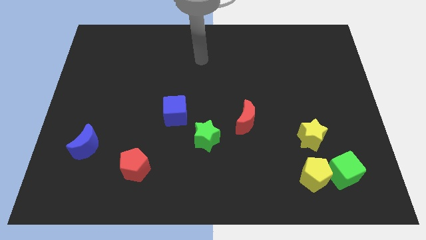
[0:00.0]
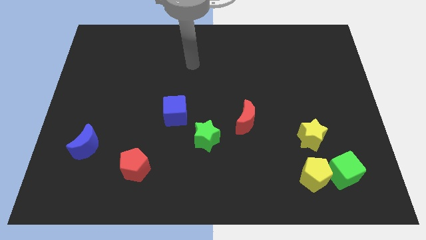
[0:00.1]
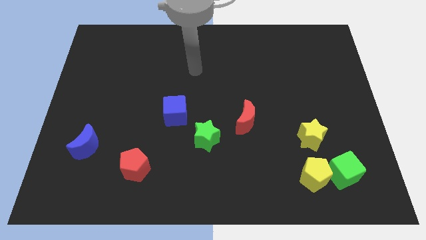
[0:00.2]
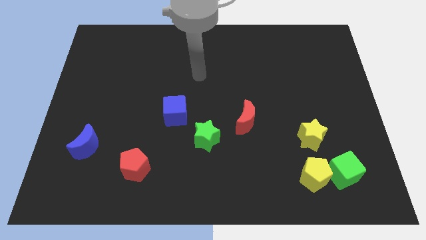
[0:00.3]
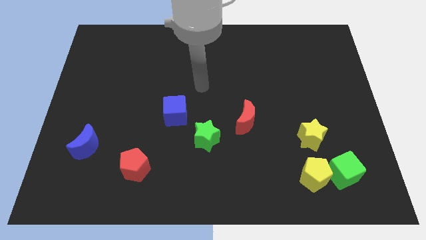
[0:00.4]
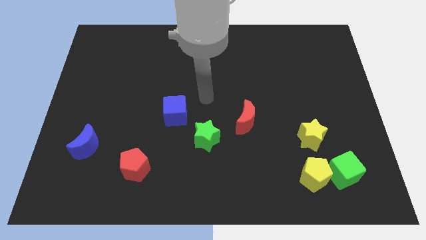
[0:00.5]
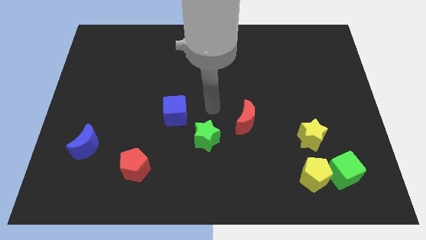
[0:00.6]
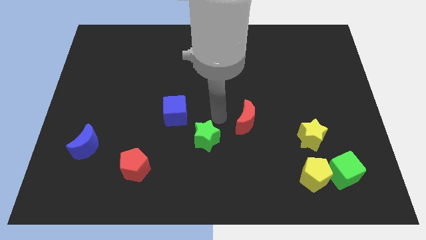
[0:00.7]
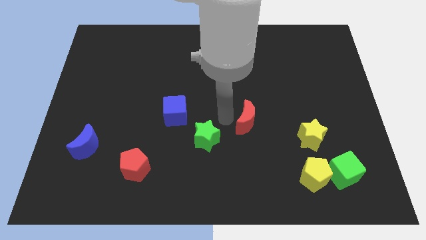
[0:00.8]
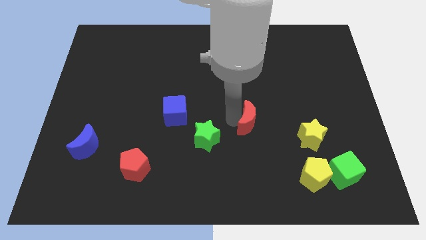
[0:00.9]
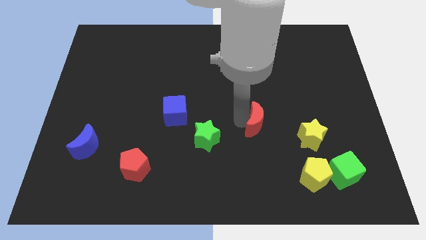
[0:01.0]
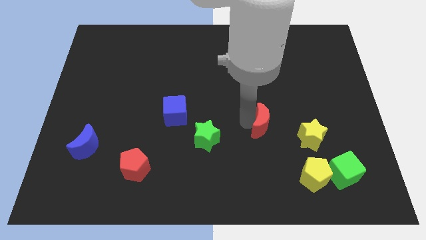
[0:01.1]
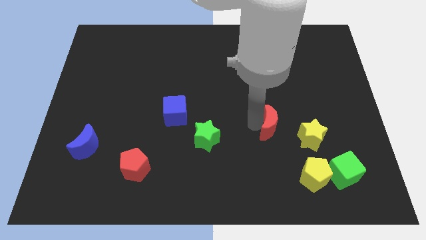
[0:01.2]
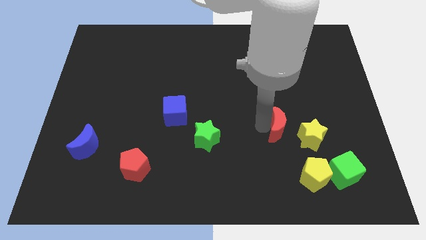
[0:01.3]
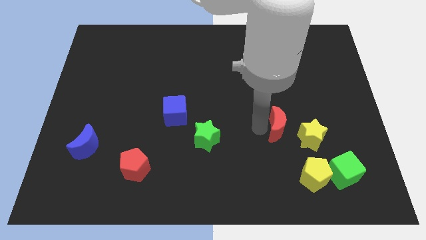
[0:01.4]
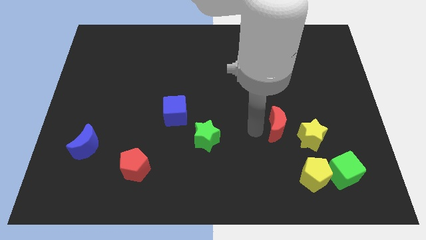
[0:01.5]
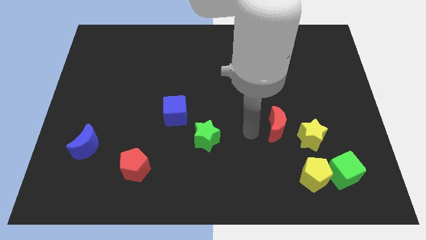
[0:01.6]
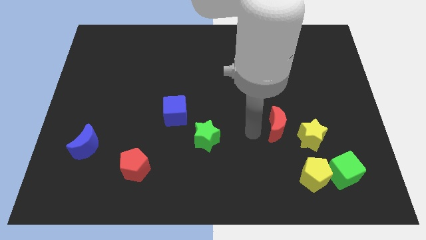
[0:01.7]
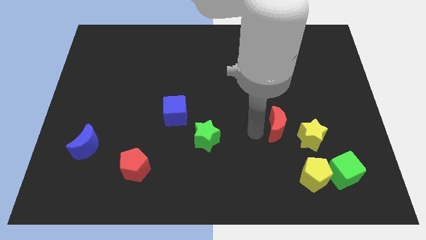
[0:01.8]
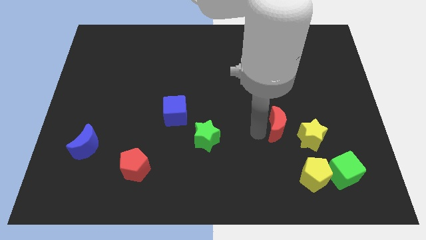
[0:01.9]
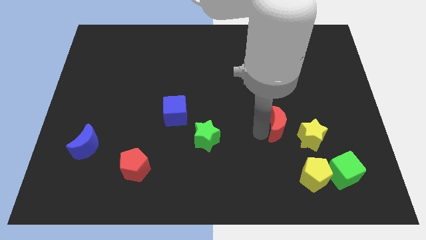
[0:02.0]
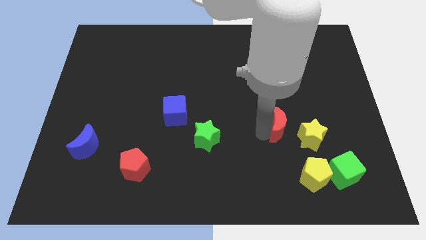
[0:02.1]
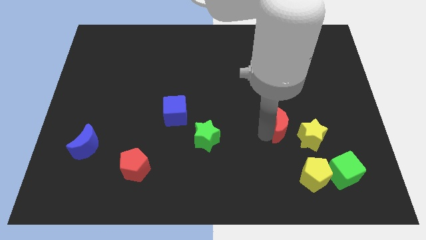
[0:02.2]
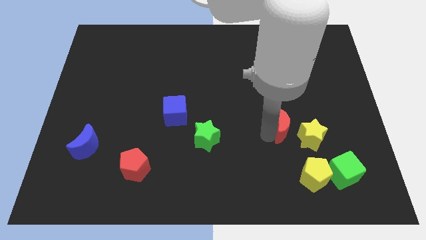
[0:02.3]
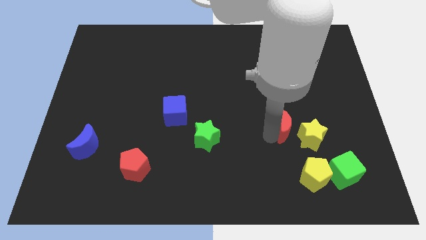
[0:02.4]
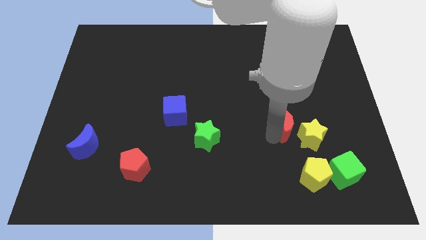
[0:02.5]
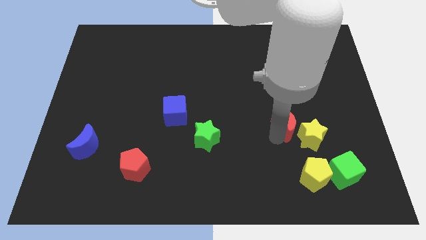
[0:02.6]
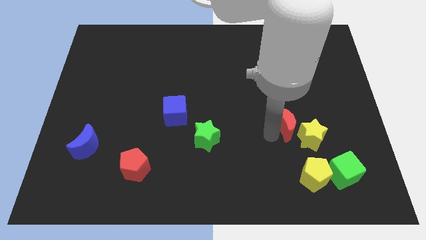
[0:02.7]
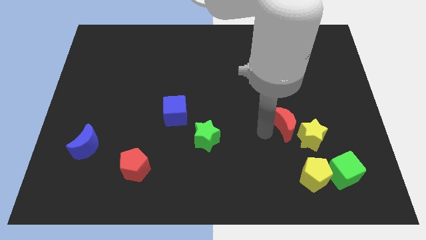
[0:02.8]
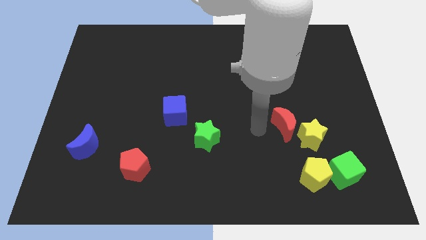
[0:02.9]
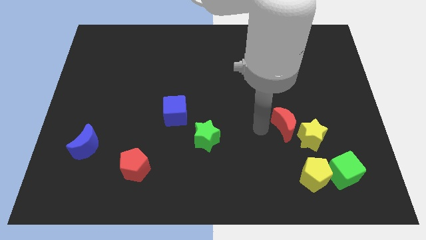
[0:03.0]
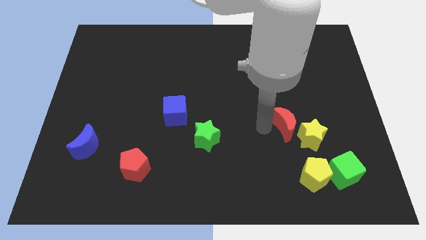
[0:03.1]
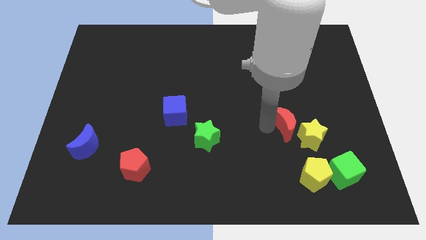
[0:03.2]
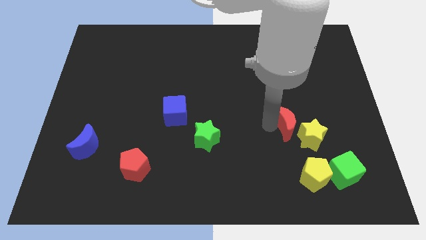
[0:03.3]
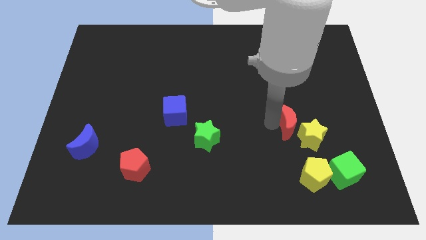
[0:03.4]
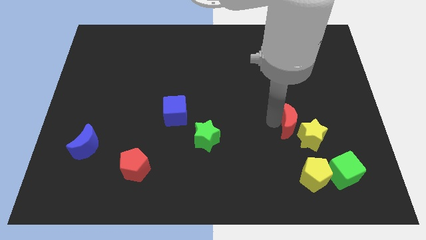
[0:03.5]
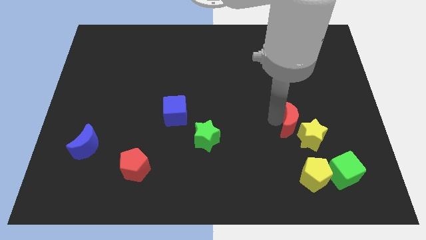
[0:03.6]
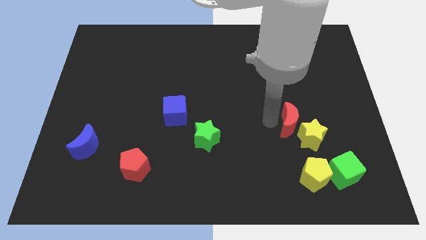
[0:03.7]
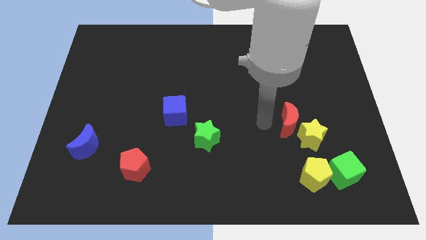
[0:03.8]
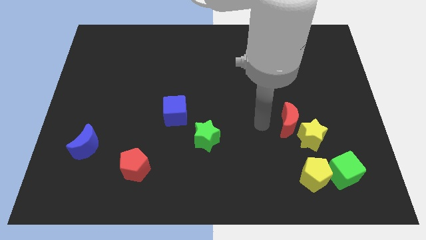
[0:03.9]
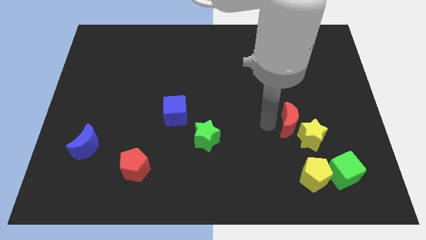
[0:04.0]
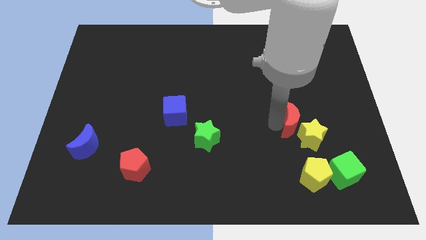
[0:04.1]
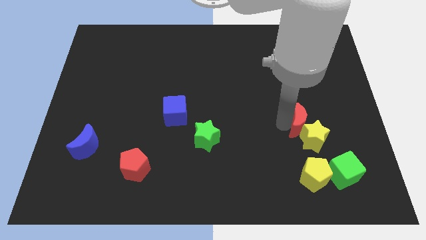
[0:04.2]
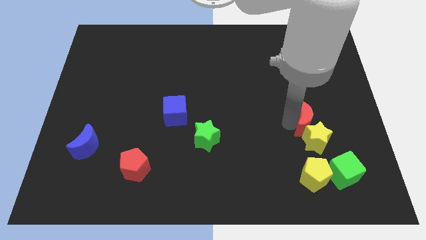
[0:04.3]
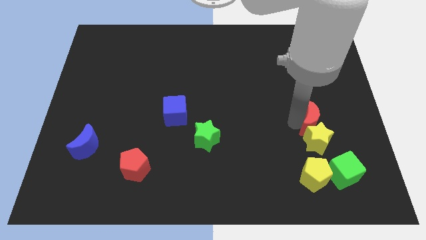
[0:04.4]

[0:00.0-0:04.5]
slide the red moon above the green cube

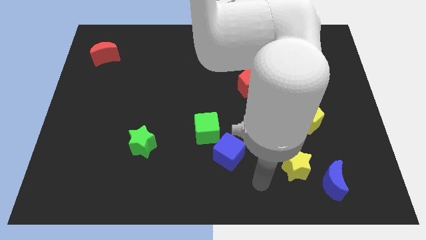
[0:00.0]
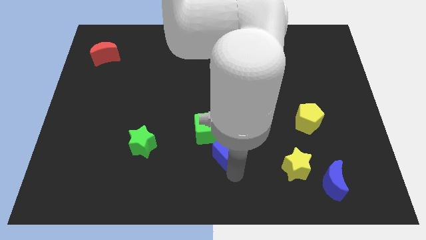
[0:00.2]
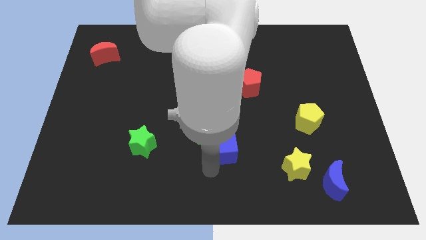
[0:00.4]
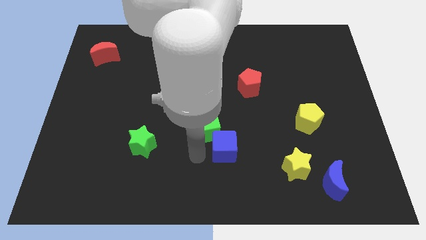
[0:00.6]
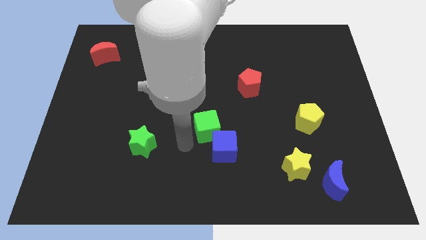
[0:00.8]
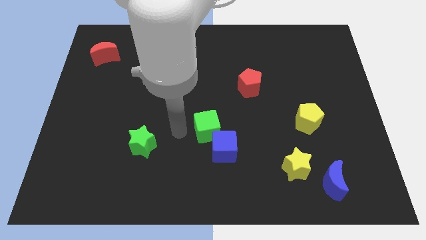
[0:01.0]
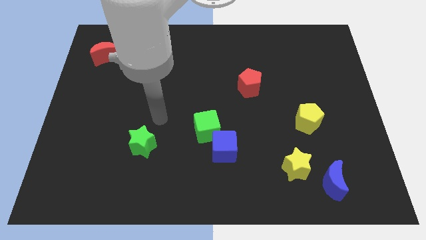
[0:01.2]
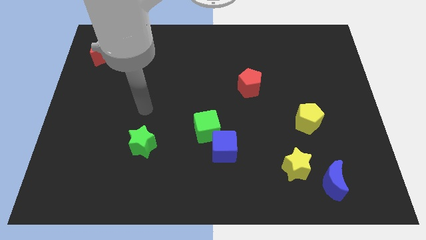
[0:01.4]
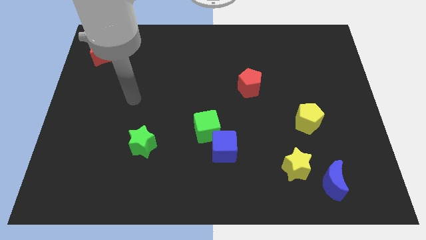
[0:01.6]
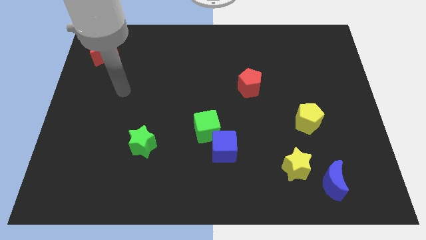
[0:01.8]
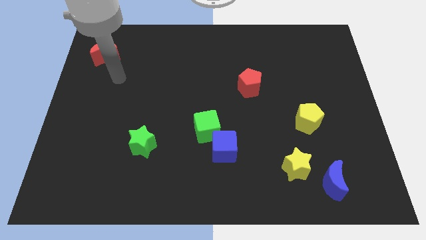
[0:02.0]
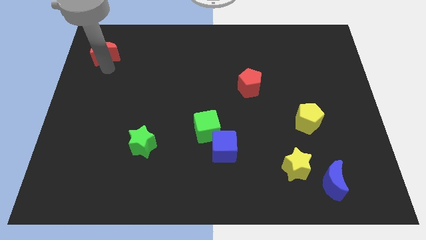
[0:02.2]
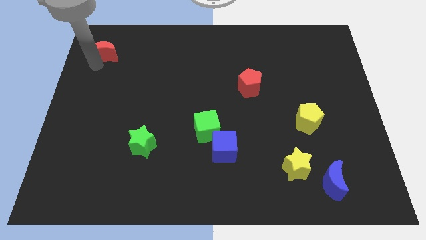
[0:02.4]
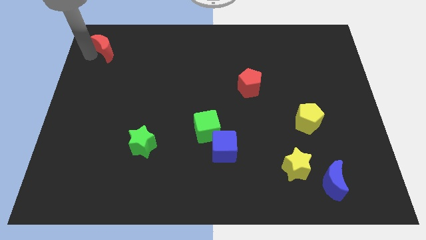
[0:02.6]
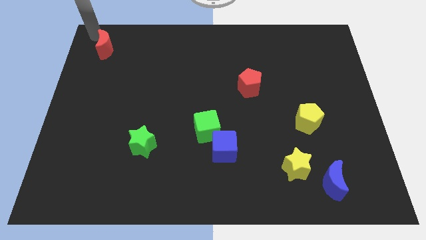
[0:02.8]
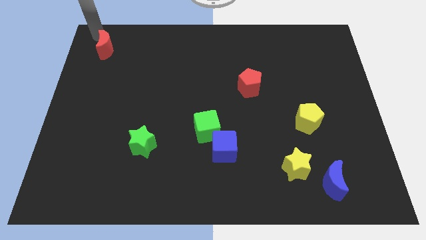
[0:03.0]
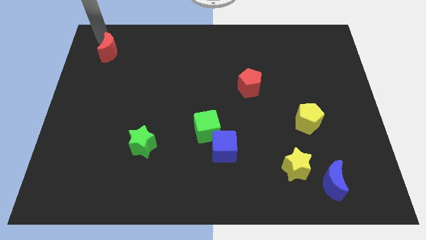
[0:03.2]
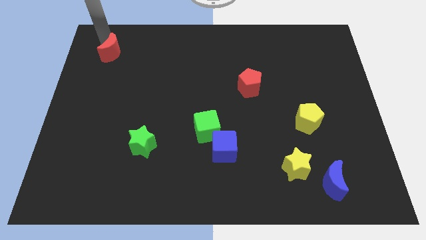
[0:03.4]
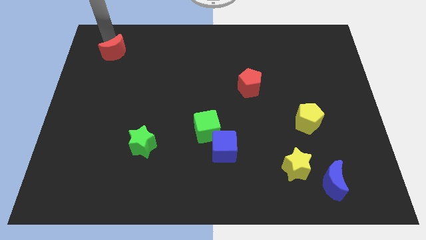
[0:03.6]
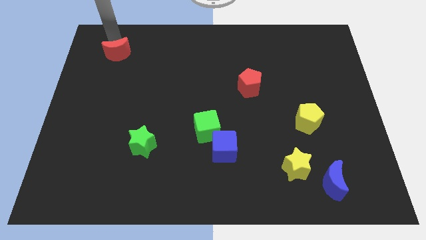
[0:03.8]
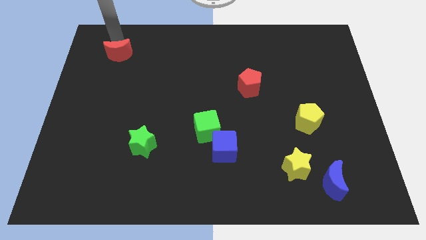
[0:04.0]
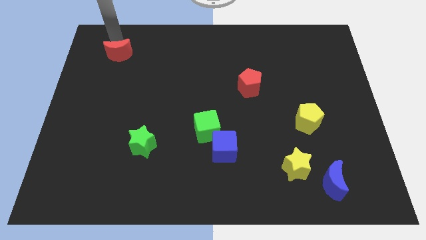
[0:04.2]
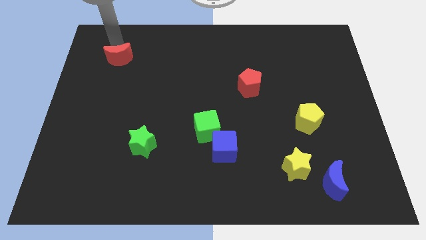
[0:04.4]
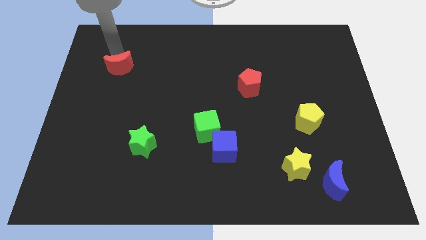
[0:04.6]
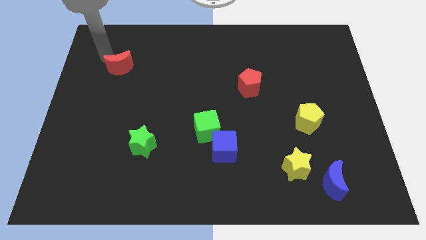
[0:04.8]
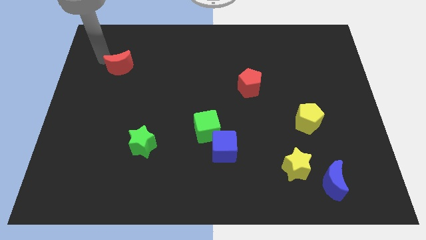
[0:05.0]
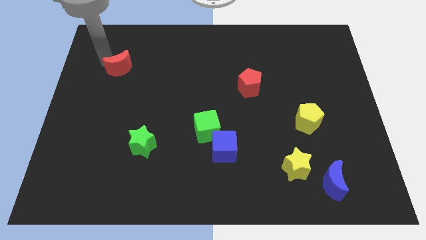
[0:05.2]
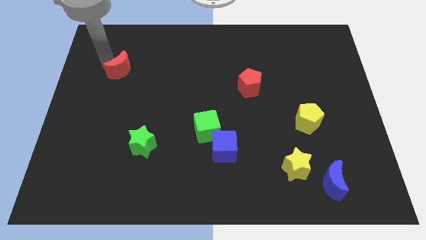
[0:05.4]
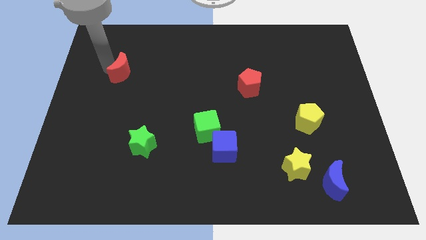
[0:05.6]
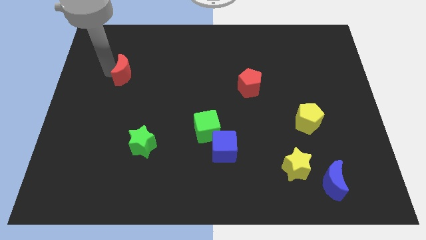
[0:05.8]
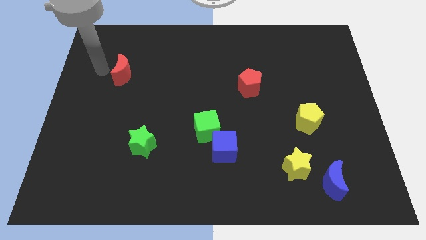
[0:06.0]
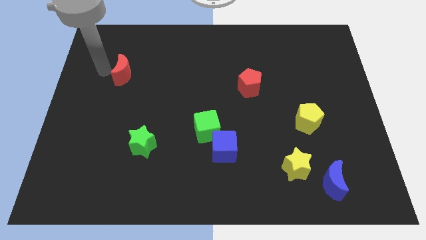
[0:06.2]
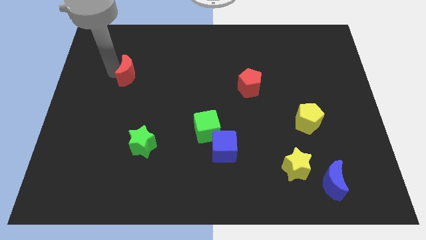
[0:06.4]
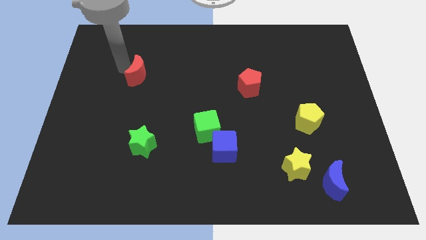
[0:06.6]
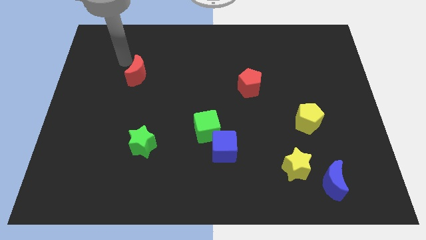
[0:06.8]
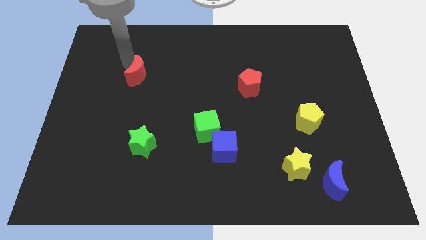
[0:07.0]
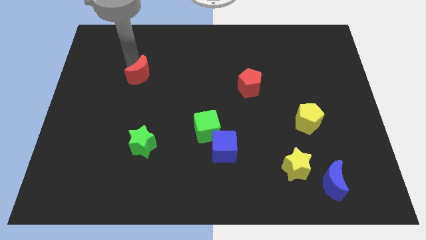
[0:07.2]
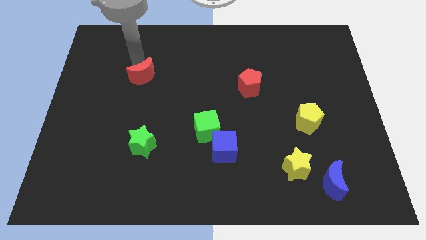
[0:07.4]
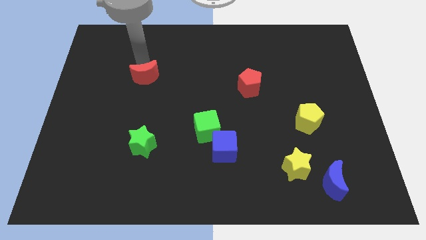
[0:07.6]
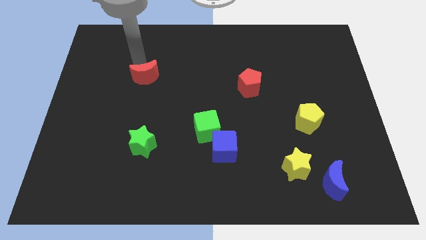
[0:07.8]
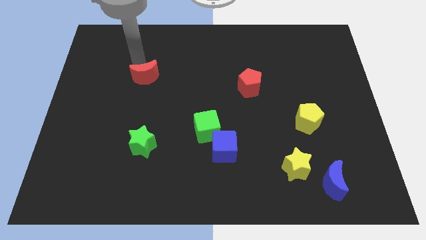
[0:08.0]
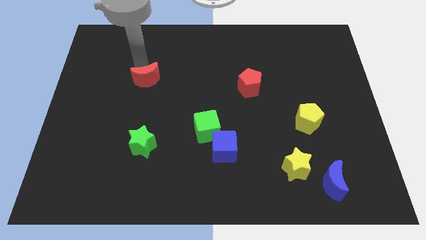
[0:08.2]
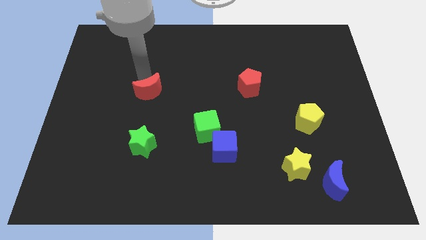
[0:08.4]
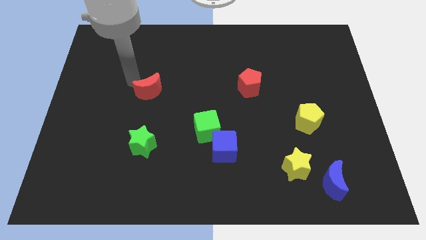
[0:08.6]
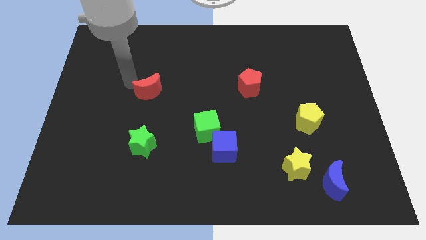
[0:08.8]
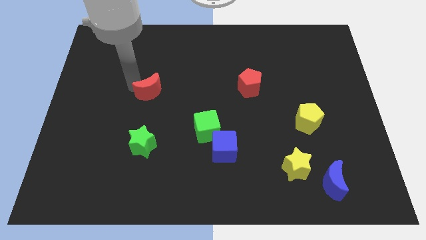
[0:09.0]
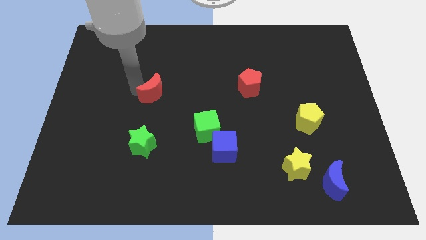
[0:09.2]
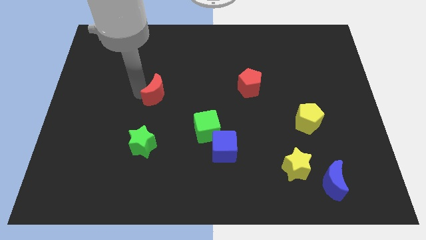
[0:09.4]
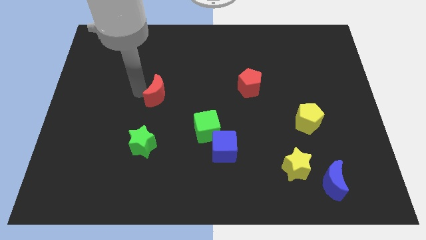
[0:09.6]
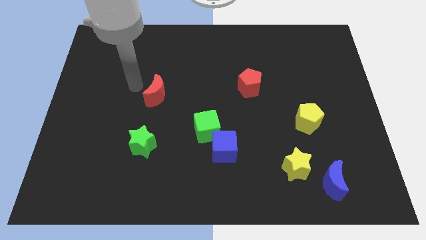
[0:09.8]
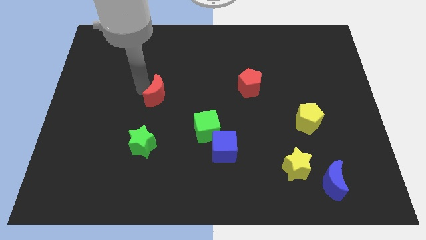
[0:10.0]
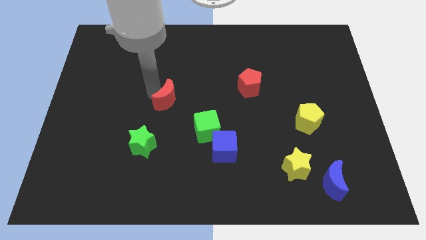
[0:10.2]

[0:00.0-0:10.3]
push the red moon to the top left side of the green cube
